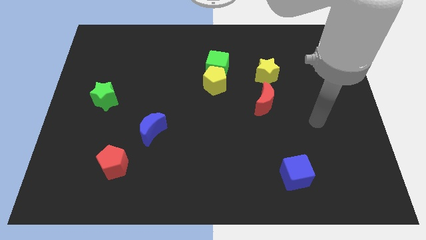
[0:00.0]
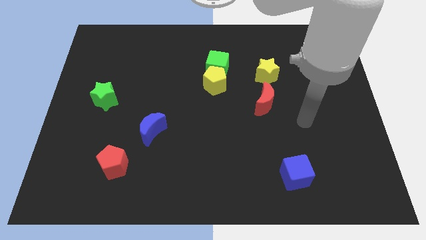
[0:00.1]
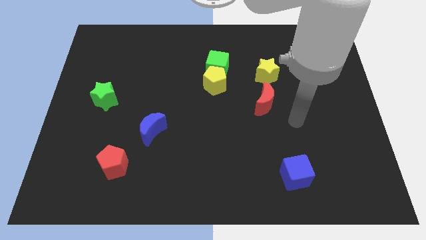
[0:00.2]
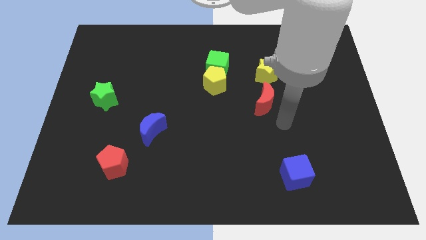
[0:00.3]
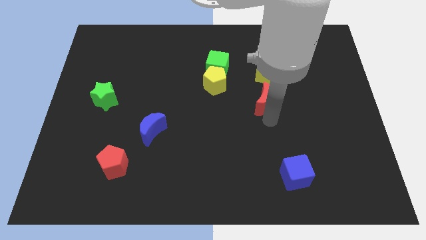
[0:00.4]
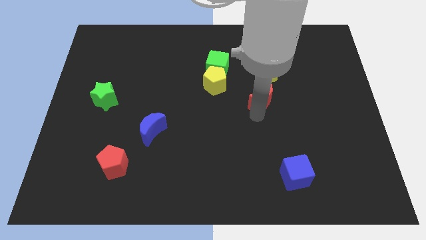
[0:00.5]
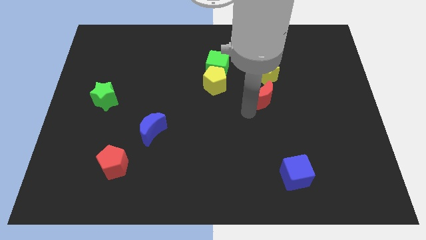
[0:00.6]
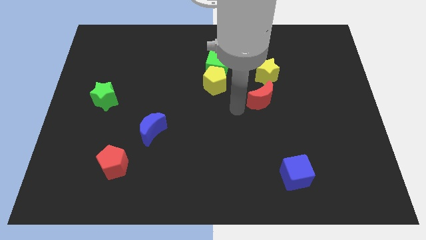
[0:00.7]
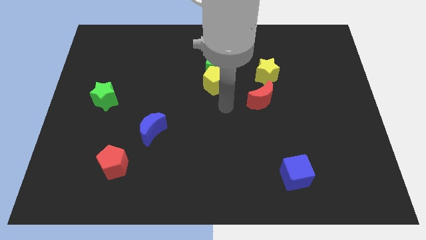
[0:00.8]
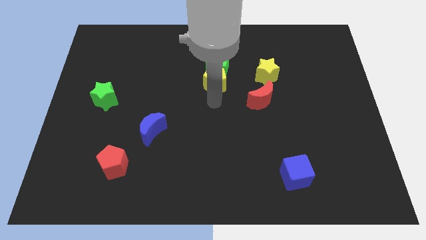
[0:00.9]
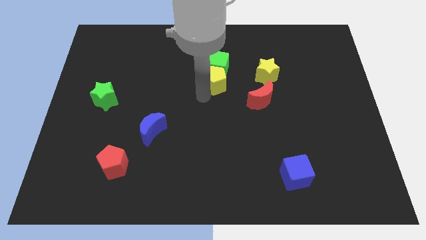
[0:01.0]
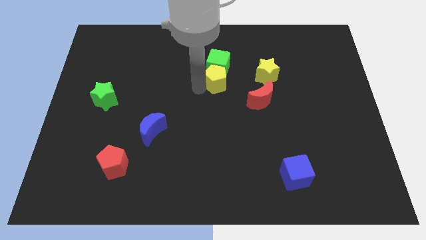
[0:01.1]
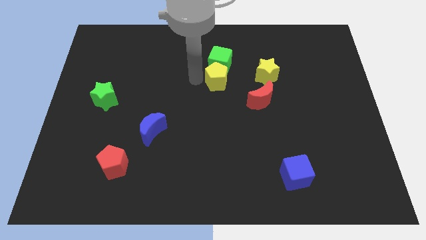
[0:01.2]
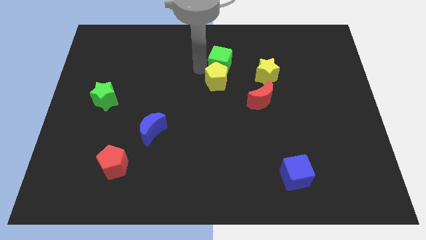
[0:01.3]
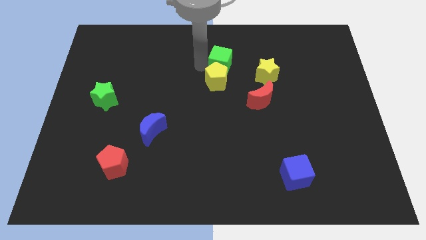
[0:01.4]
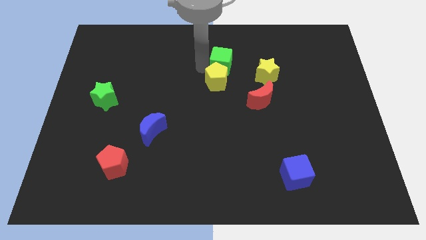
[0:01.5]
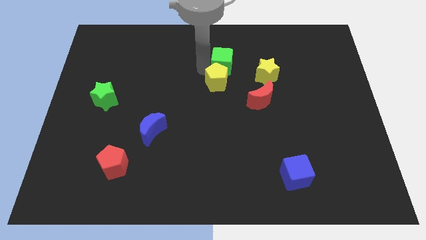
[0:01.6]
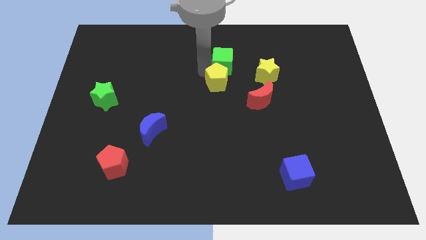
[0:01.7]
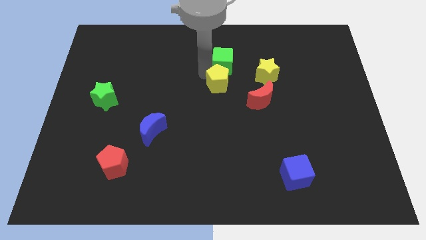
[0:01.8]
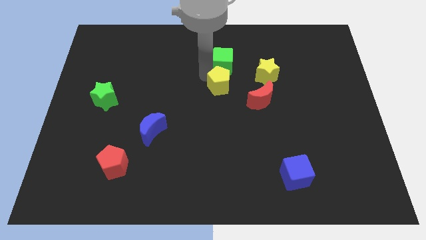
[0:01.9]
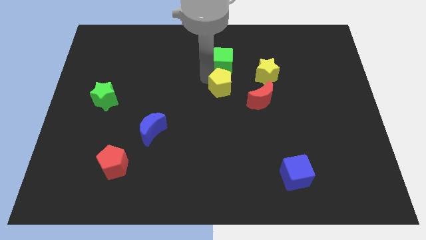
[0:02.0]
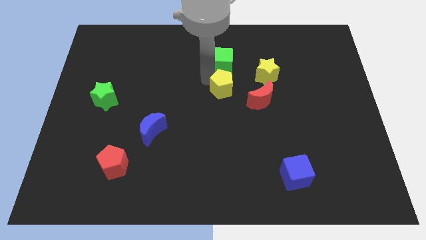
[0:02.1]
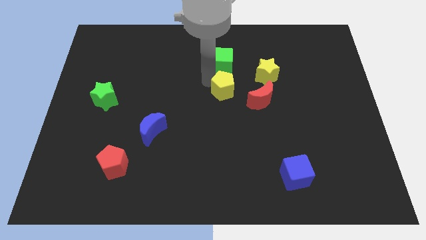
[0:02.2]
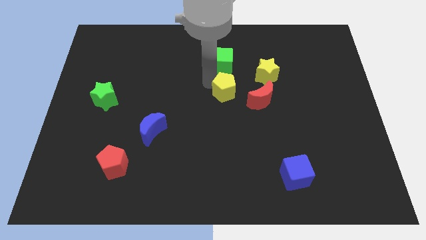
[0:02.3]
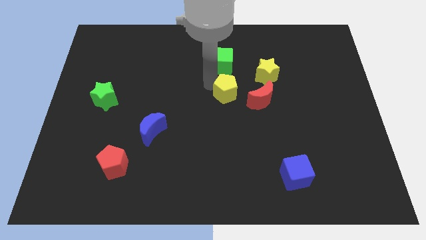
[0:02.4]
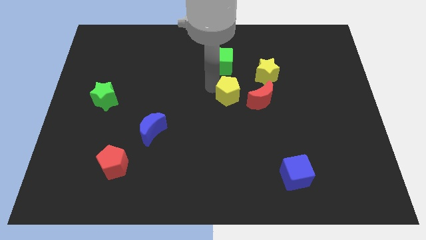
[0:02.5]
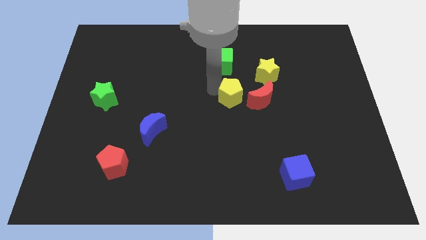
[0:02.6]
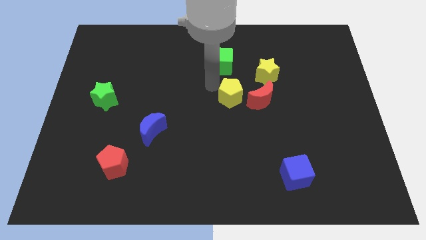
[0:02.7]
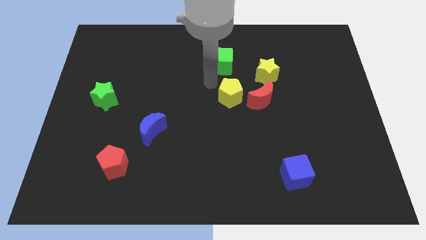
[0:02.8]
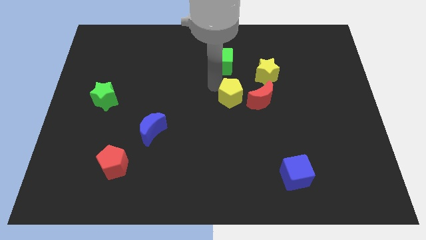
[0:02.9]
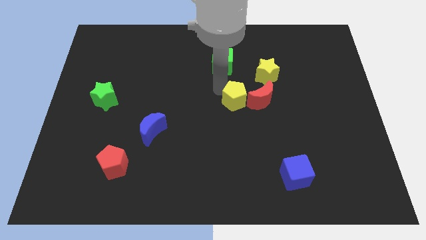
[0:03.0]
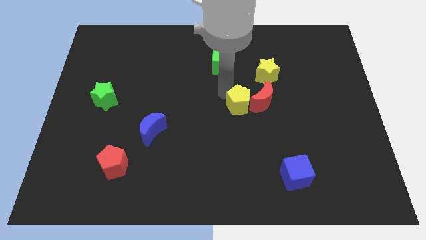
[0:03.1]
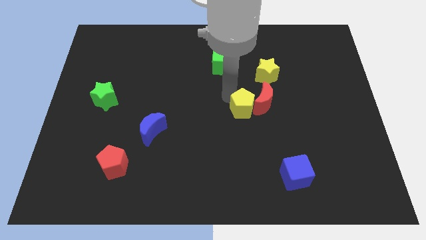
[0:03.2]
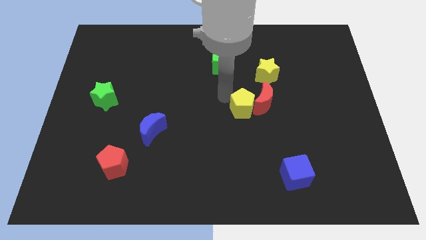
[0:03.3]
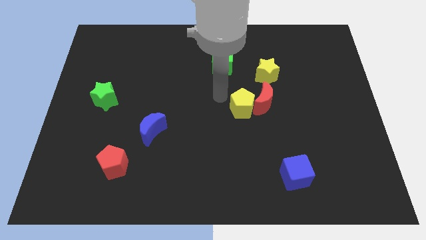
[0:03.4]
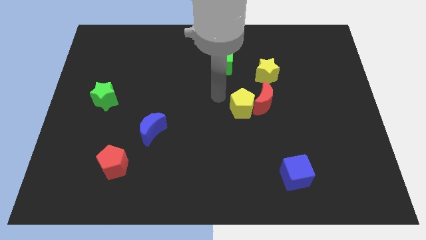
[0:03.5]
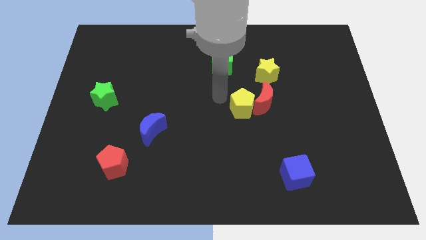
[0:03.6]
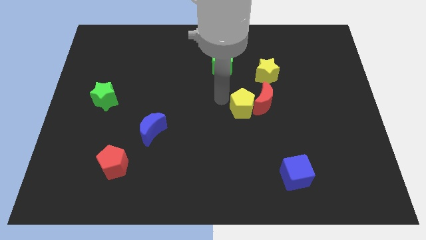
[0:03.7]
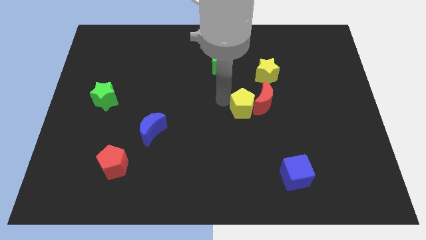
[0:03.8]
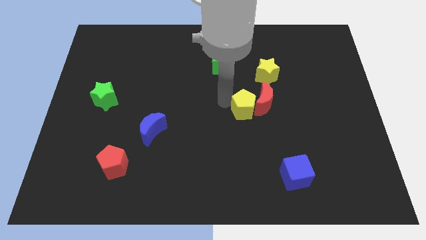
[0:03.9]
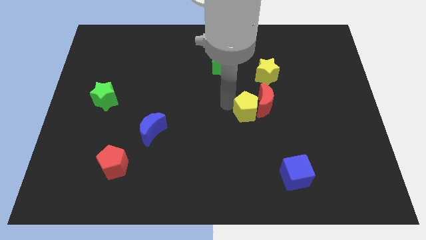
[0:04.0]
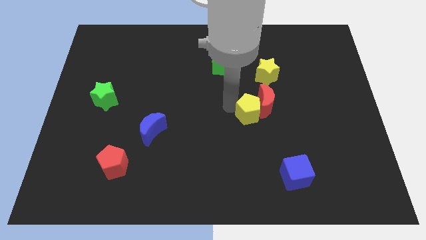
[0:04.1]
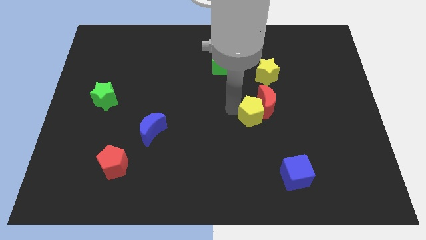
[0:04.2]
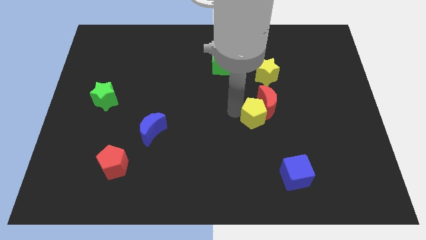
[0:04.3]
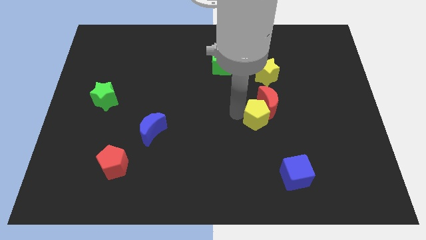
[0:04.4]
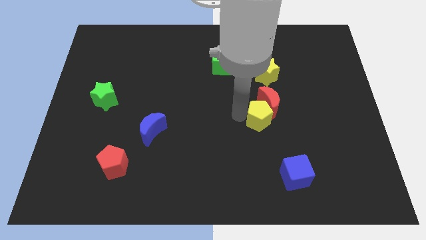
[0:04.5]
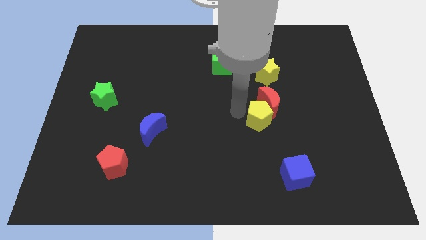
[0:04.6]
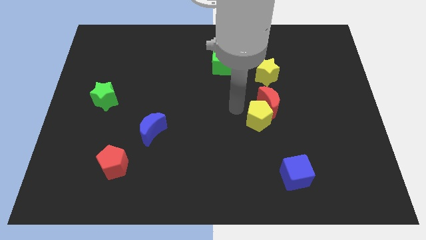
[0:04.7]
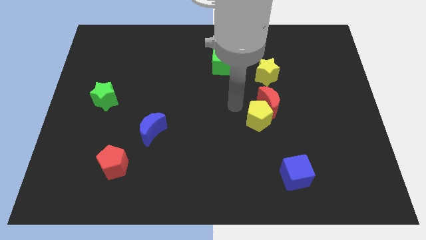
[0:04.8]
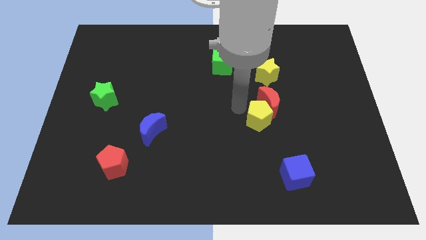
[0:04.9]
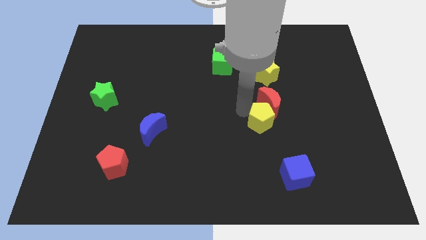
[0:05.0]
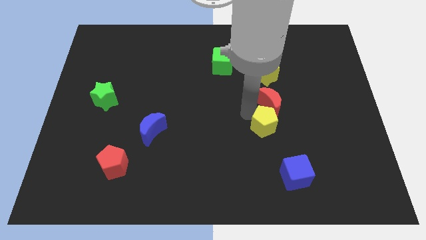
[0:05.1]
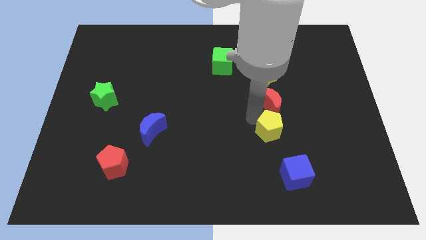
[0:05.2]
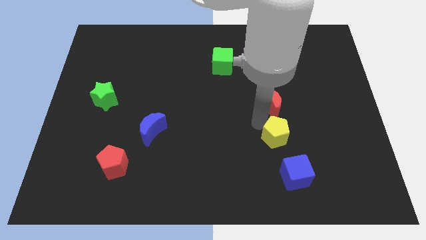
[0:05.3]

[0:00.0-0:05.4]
push the yellow pentagon downwards and to the right diagonally

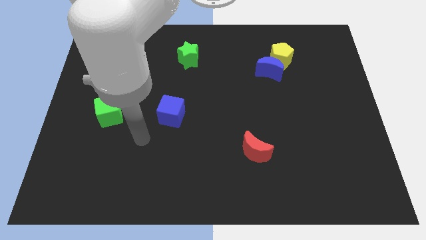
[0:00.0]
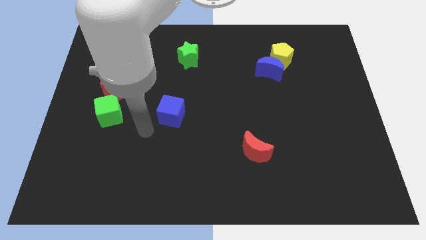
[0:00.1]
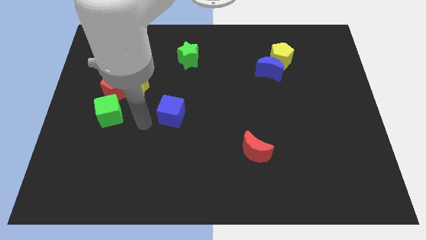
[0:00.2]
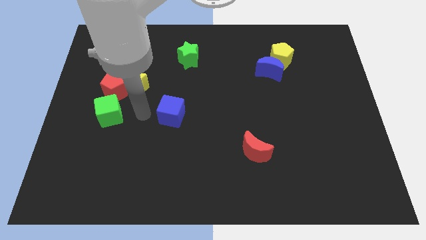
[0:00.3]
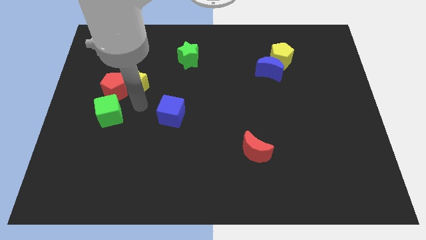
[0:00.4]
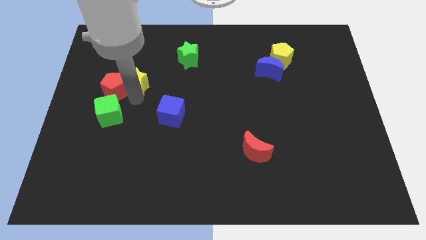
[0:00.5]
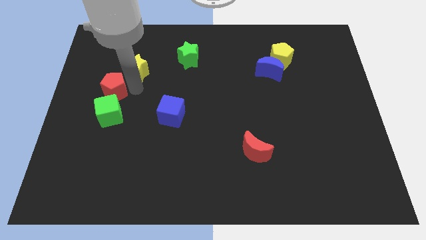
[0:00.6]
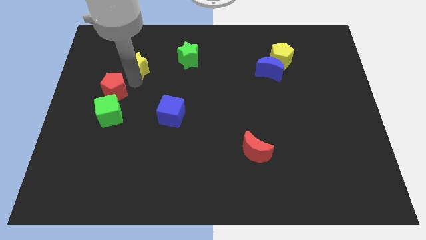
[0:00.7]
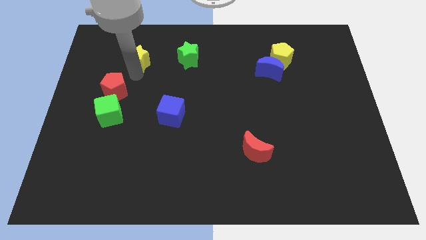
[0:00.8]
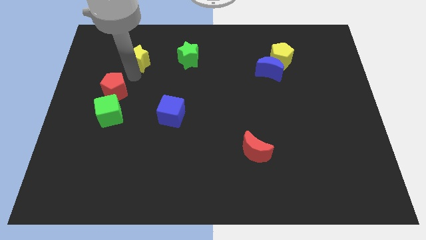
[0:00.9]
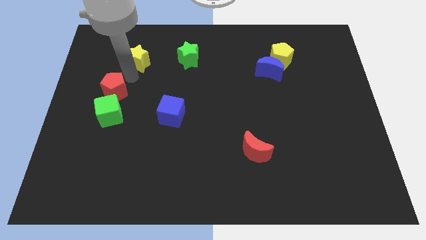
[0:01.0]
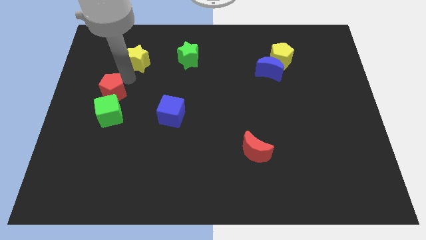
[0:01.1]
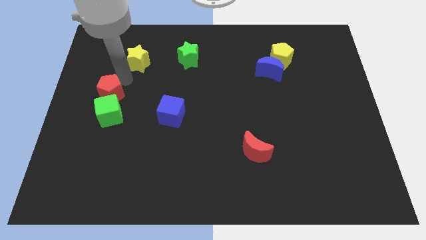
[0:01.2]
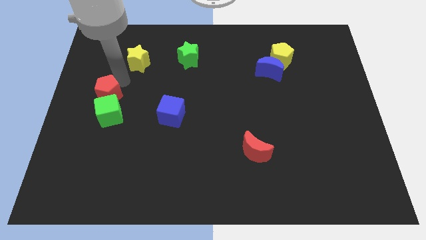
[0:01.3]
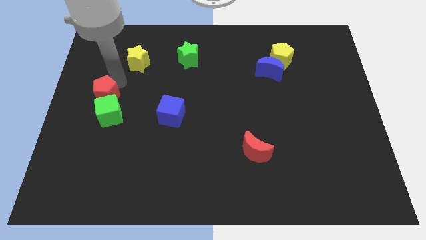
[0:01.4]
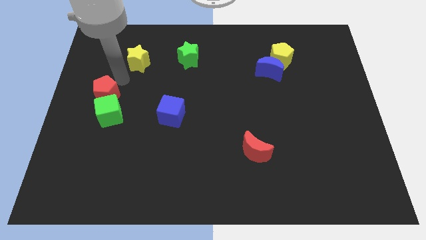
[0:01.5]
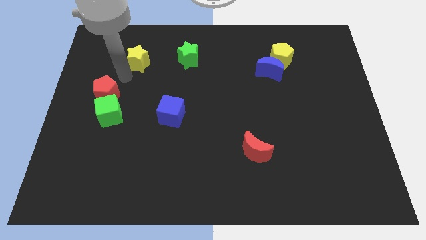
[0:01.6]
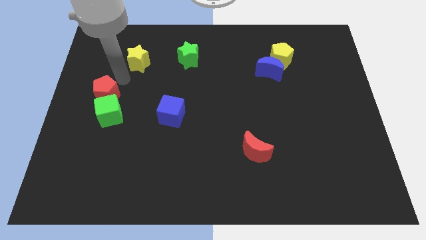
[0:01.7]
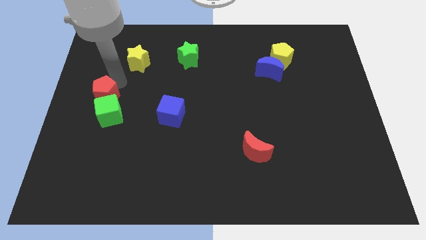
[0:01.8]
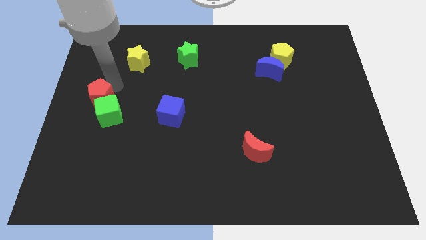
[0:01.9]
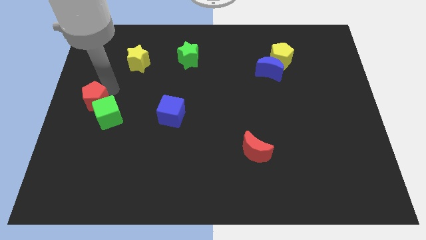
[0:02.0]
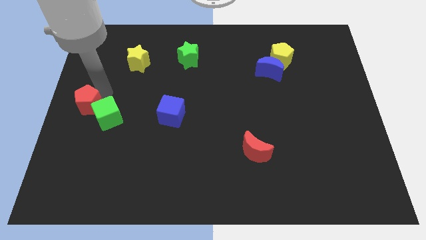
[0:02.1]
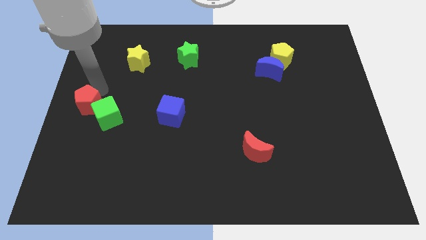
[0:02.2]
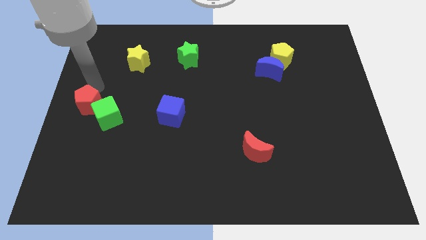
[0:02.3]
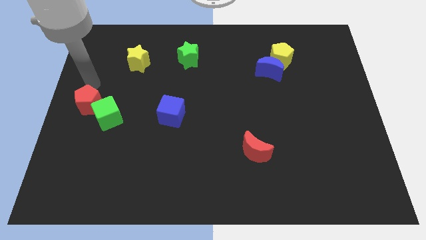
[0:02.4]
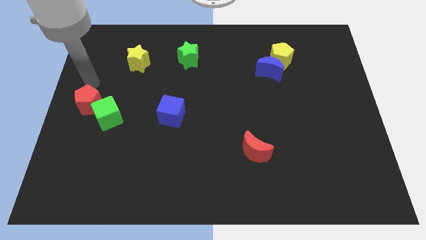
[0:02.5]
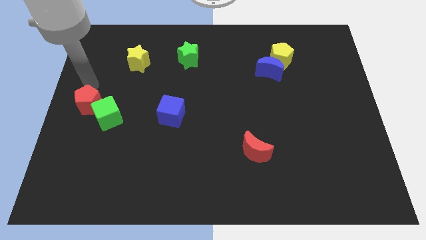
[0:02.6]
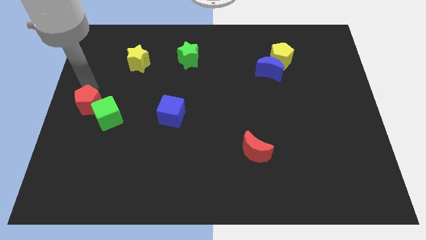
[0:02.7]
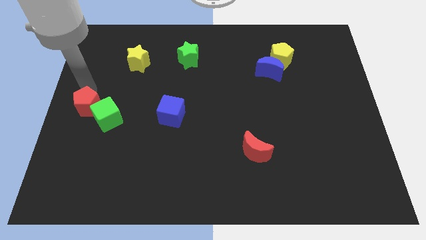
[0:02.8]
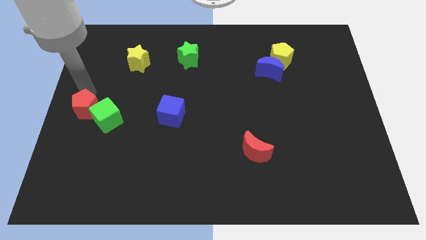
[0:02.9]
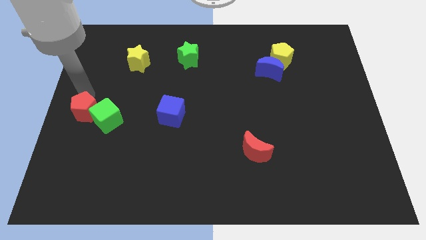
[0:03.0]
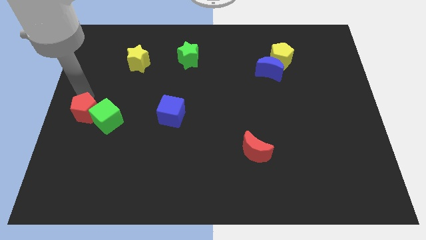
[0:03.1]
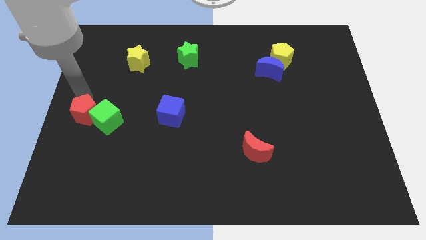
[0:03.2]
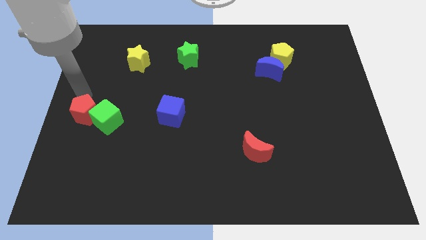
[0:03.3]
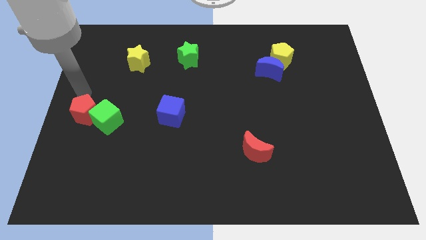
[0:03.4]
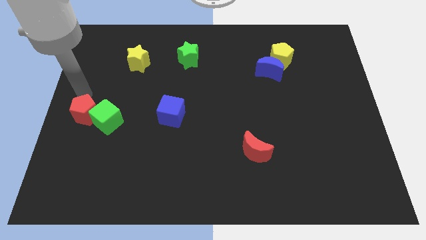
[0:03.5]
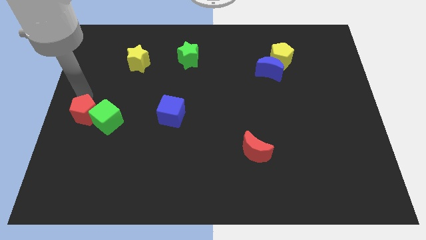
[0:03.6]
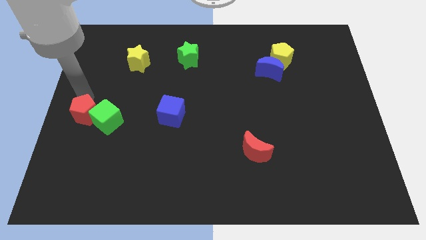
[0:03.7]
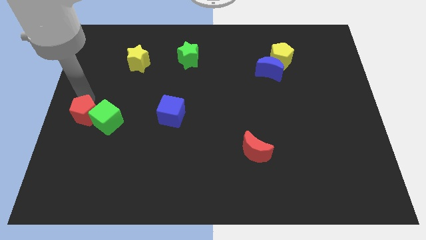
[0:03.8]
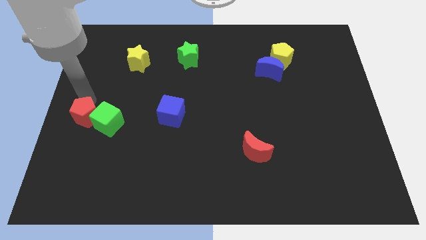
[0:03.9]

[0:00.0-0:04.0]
move the red pentagon a little bit down
